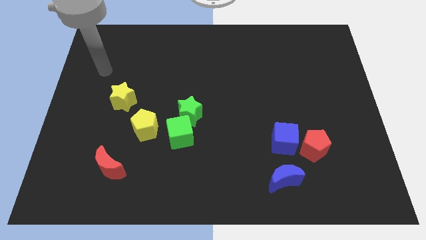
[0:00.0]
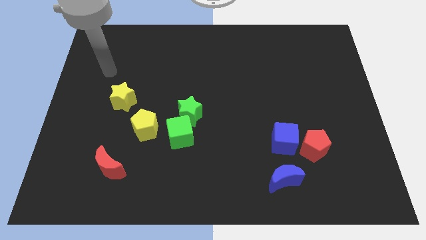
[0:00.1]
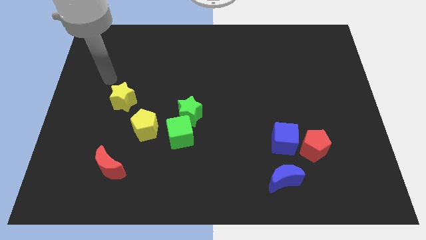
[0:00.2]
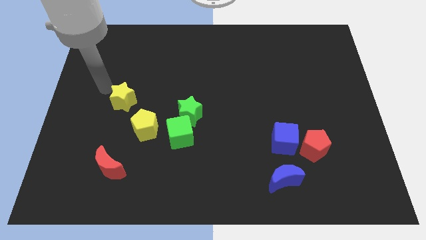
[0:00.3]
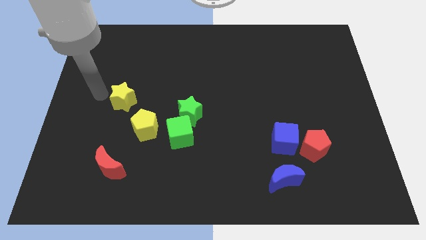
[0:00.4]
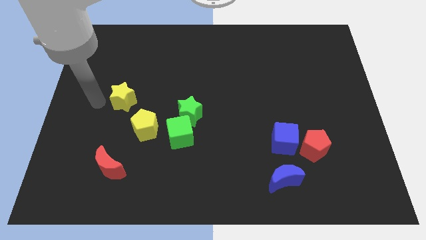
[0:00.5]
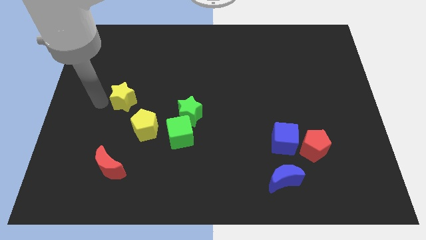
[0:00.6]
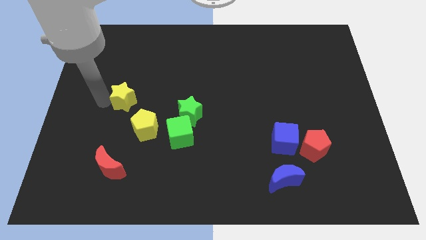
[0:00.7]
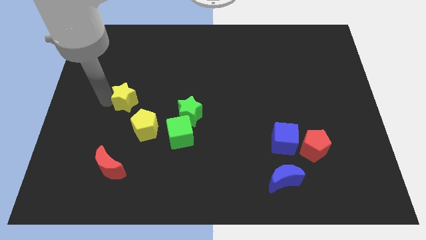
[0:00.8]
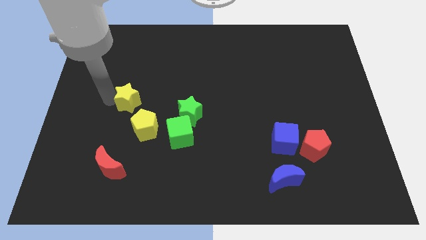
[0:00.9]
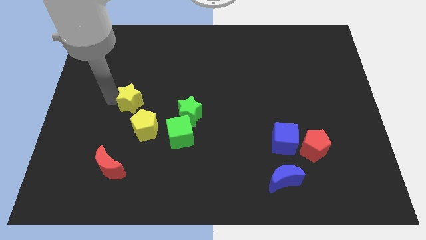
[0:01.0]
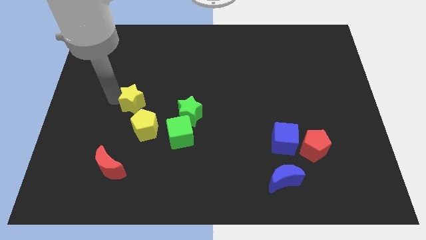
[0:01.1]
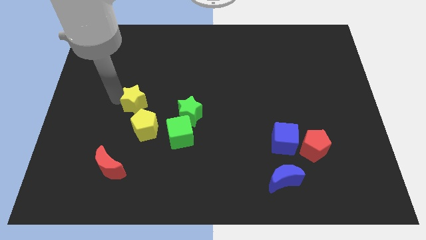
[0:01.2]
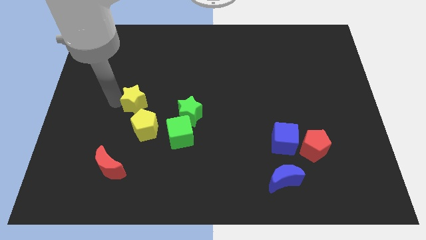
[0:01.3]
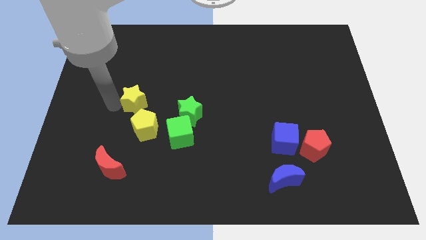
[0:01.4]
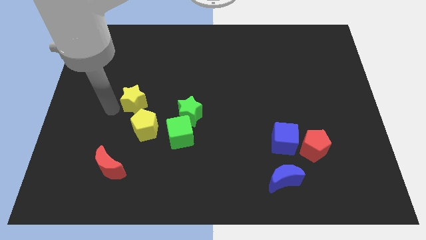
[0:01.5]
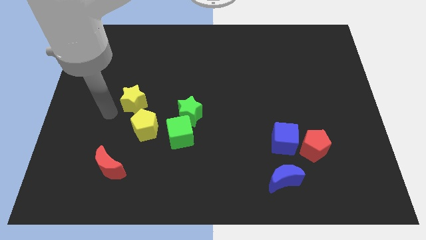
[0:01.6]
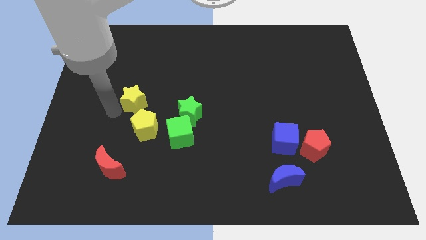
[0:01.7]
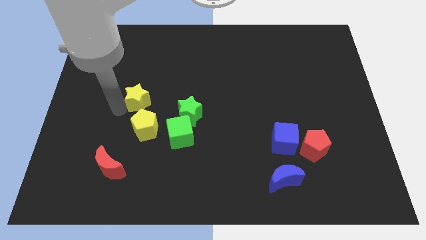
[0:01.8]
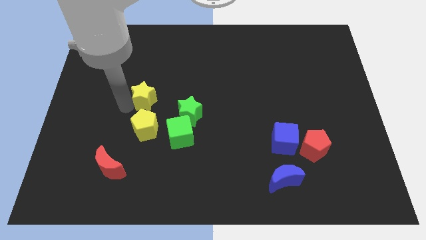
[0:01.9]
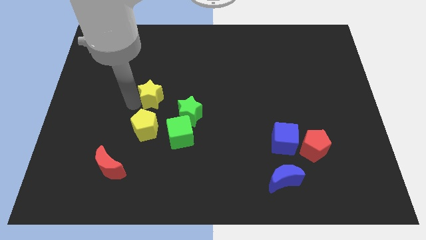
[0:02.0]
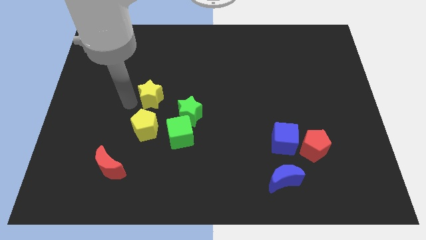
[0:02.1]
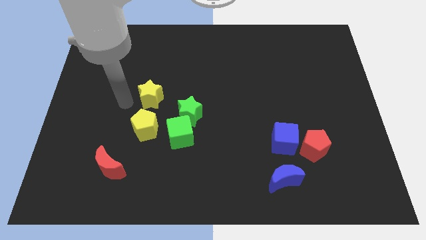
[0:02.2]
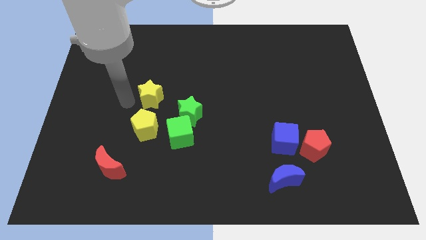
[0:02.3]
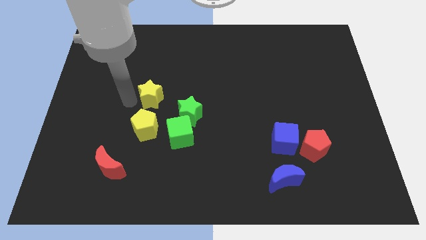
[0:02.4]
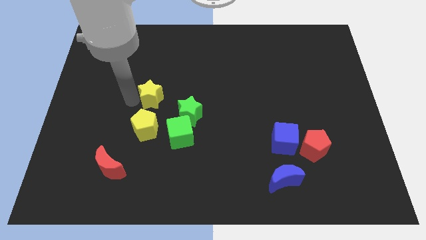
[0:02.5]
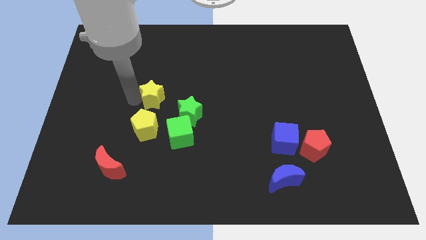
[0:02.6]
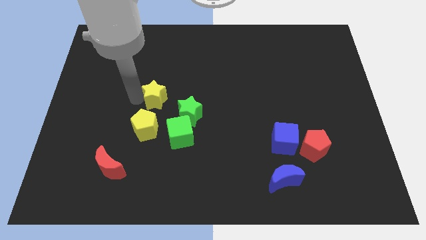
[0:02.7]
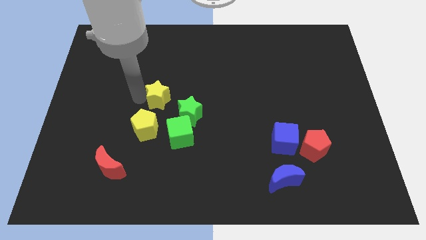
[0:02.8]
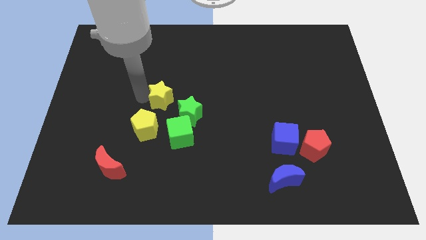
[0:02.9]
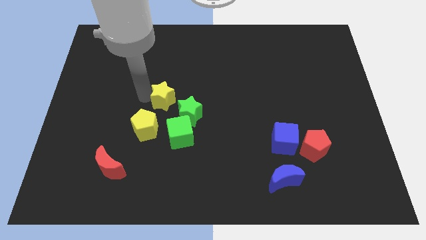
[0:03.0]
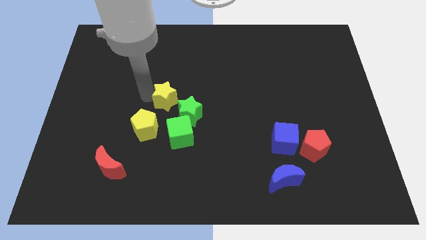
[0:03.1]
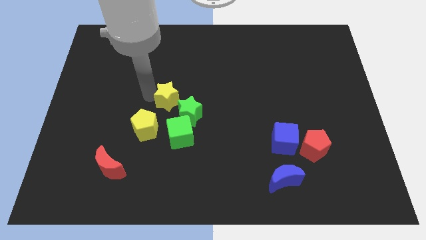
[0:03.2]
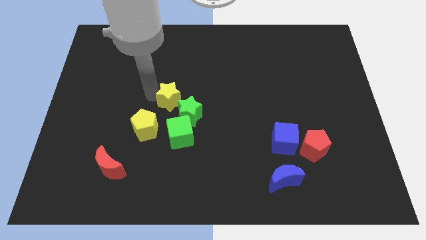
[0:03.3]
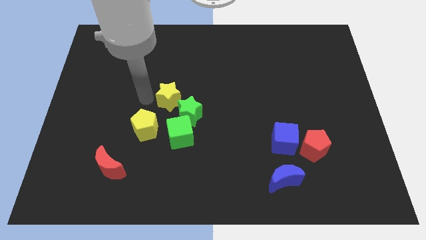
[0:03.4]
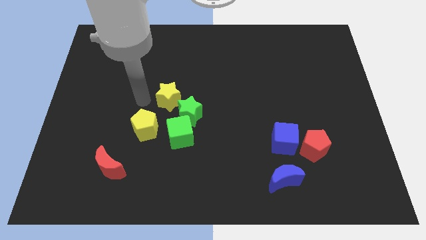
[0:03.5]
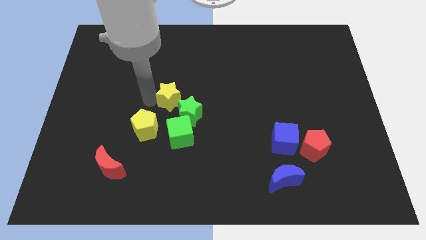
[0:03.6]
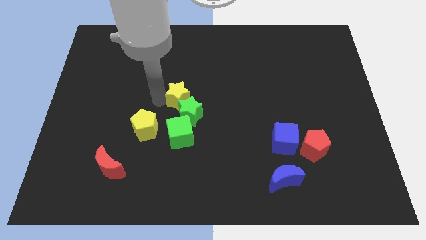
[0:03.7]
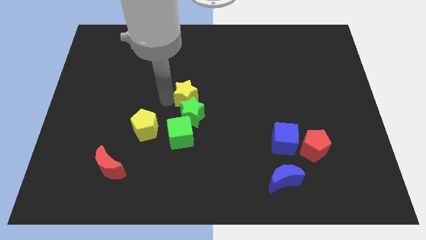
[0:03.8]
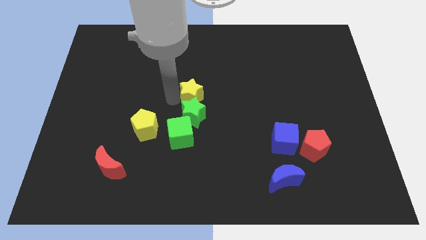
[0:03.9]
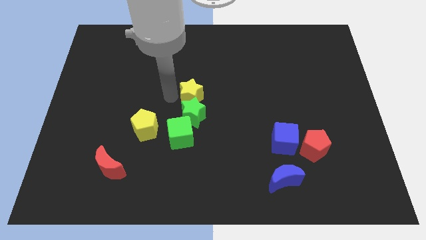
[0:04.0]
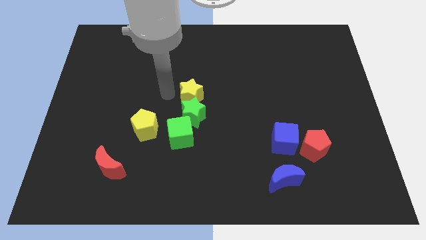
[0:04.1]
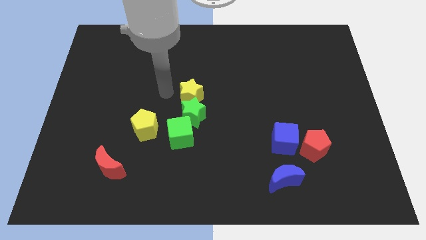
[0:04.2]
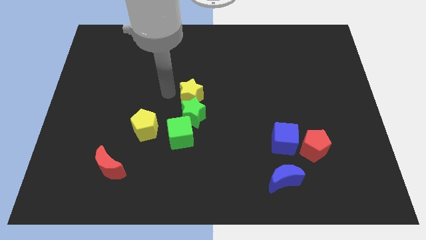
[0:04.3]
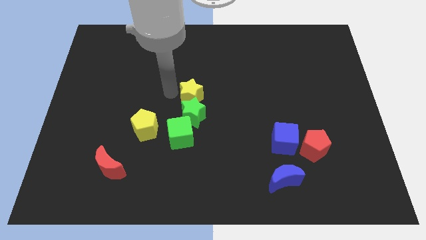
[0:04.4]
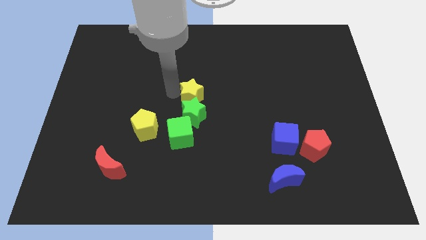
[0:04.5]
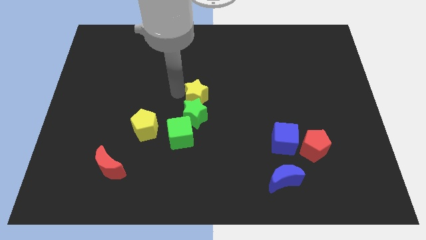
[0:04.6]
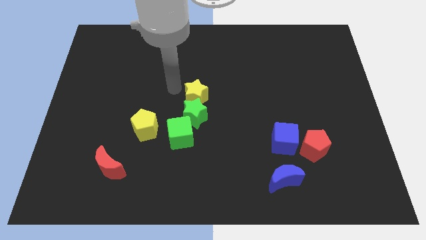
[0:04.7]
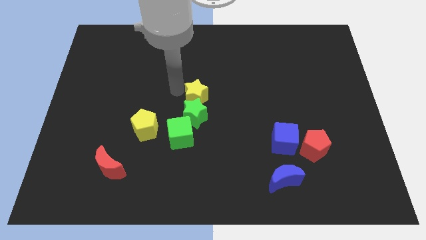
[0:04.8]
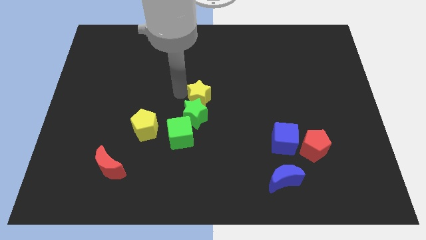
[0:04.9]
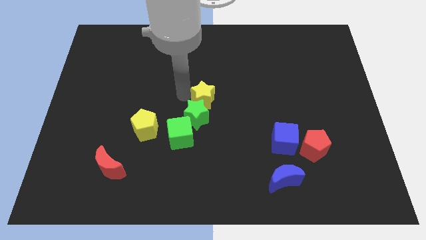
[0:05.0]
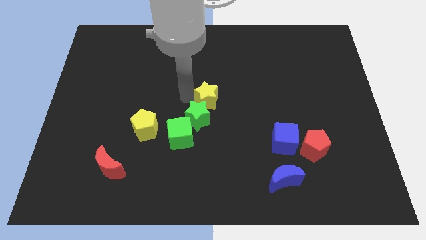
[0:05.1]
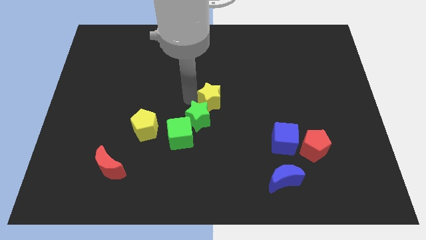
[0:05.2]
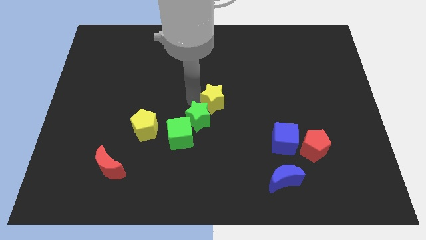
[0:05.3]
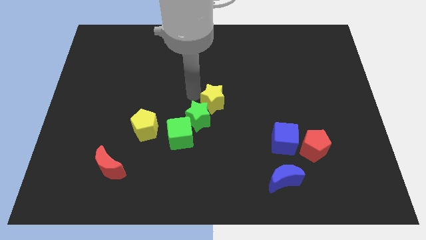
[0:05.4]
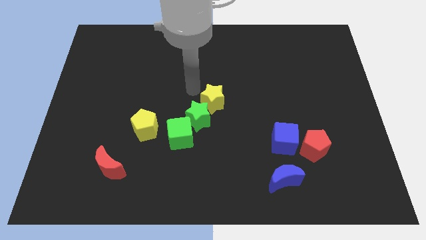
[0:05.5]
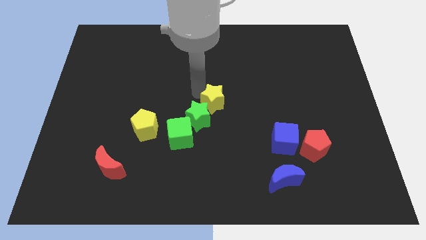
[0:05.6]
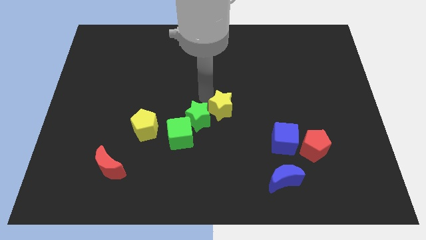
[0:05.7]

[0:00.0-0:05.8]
put the yellow star just right of the green star

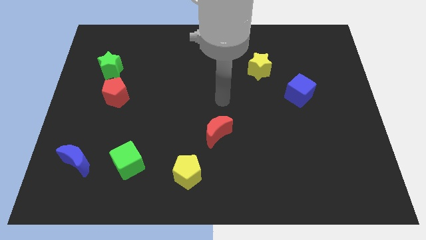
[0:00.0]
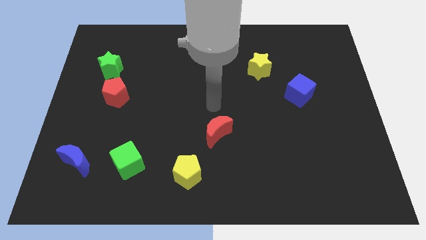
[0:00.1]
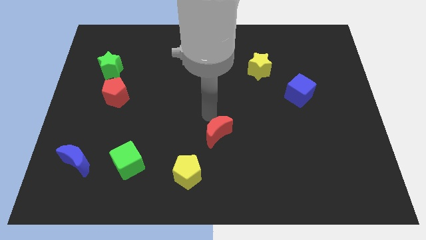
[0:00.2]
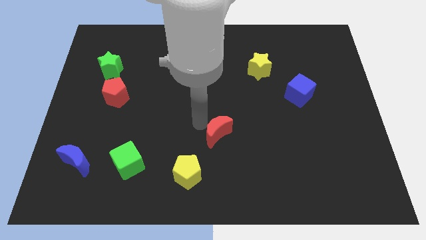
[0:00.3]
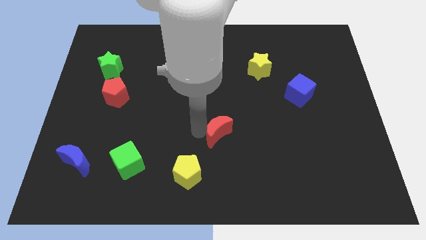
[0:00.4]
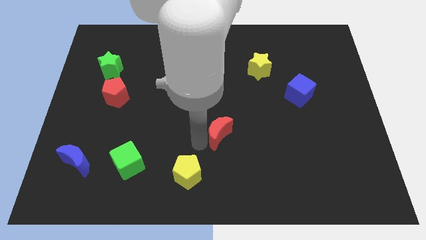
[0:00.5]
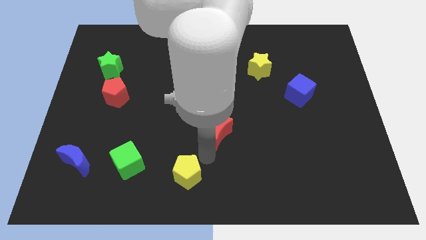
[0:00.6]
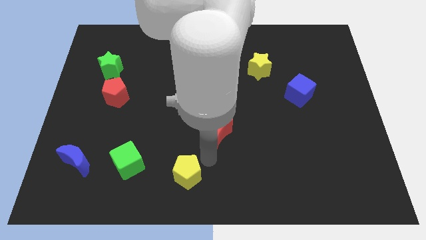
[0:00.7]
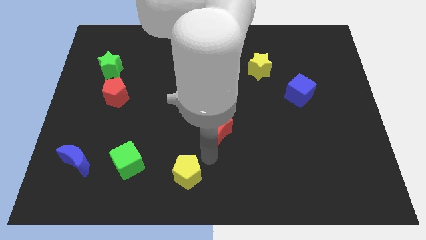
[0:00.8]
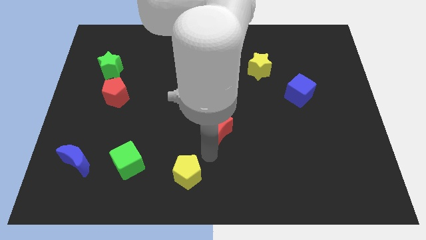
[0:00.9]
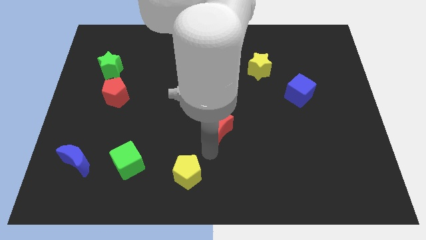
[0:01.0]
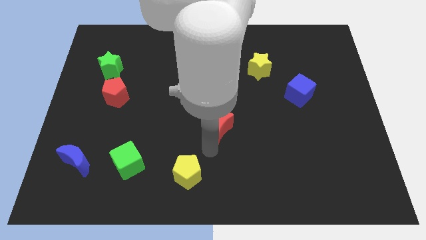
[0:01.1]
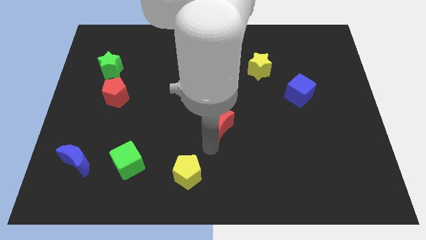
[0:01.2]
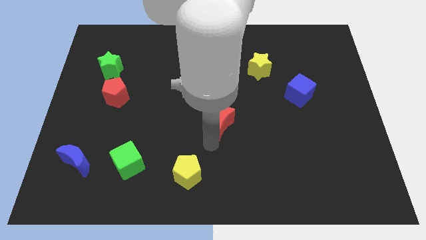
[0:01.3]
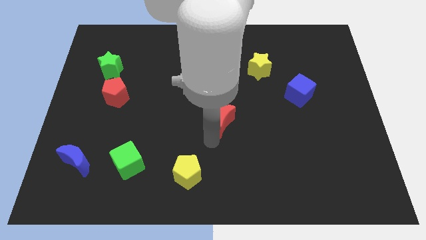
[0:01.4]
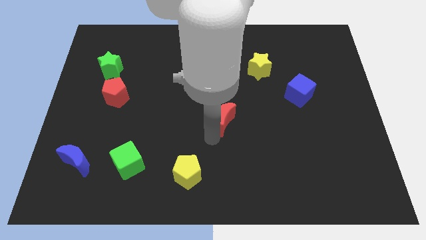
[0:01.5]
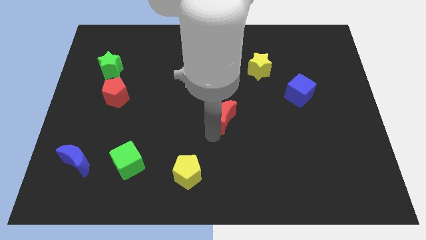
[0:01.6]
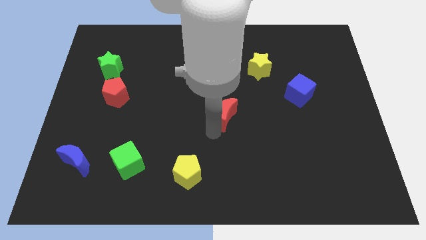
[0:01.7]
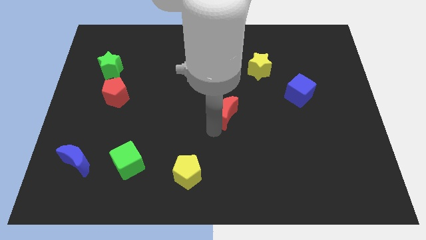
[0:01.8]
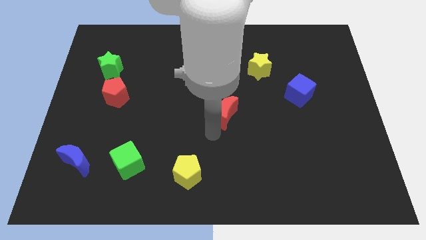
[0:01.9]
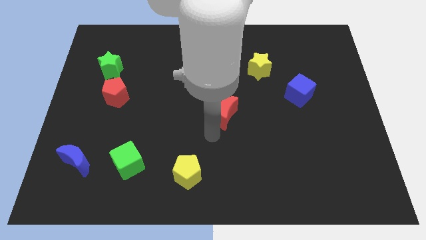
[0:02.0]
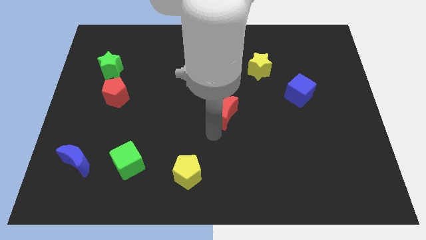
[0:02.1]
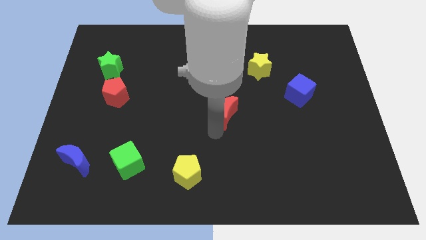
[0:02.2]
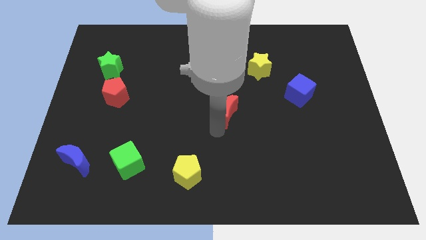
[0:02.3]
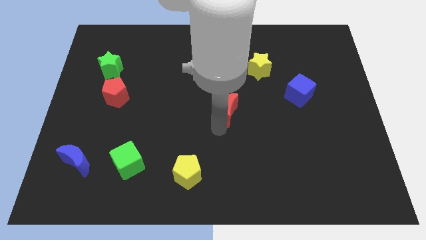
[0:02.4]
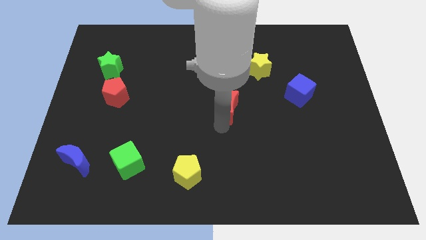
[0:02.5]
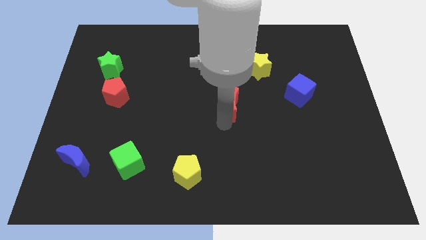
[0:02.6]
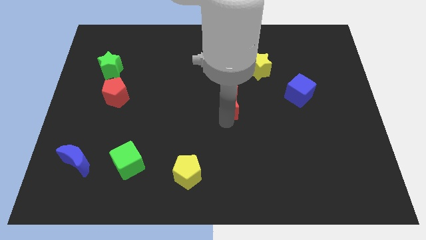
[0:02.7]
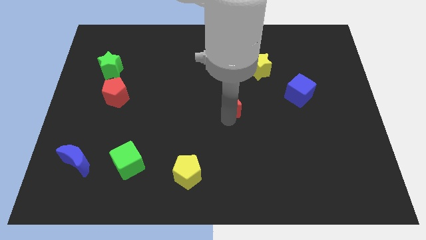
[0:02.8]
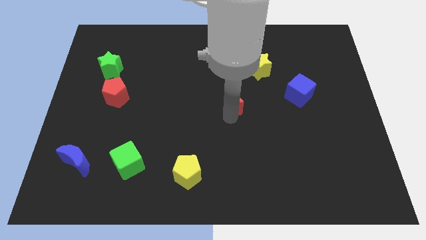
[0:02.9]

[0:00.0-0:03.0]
push the red moon to the bottom left side of the yellow star
